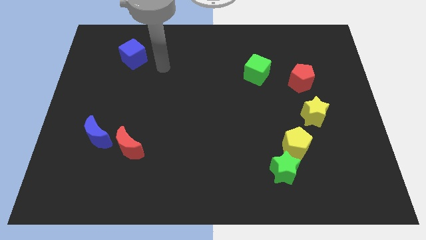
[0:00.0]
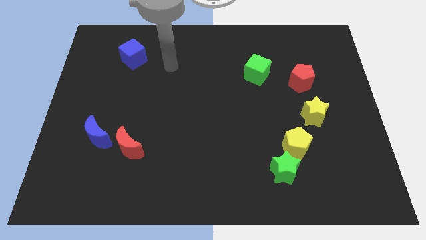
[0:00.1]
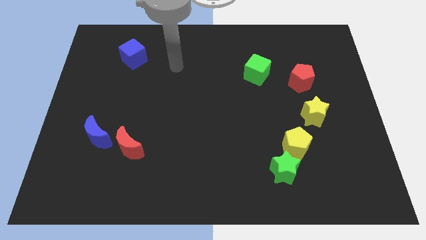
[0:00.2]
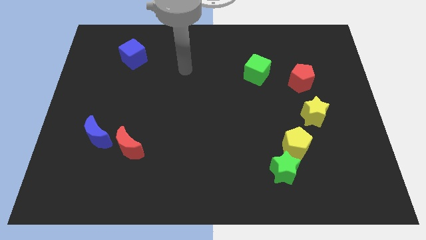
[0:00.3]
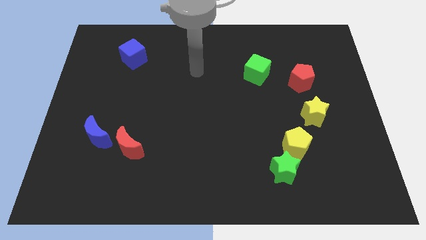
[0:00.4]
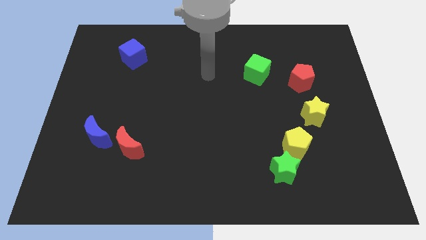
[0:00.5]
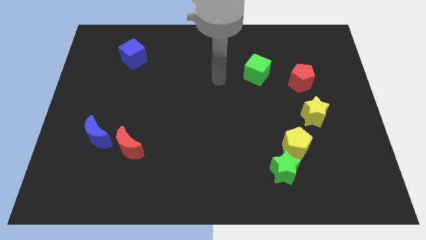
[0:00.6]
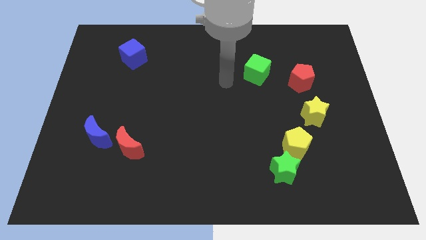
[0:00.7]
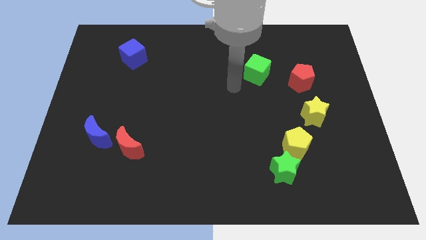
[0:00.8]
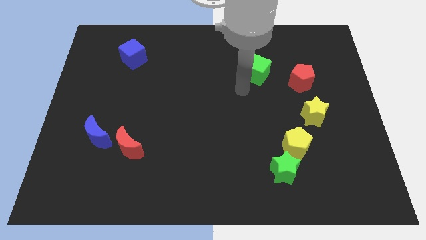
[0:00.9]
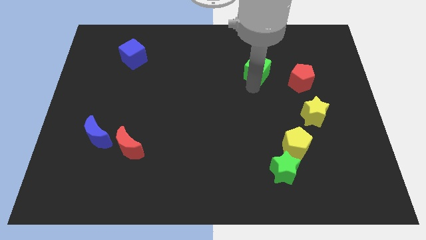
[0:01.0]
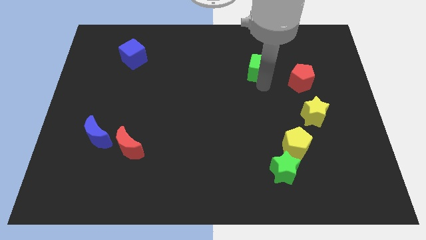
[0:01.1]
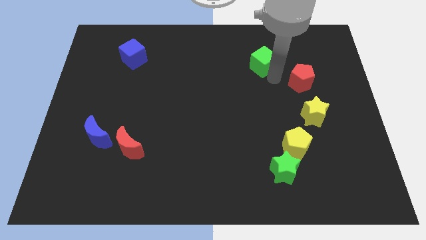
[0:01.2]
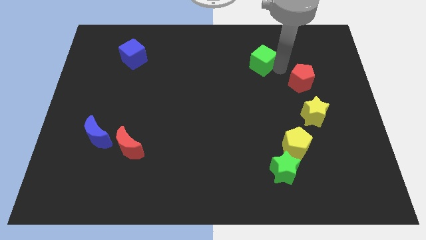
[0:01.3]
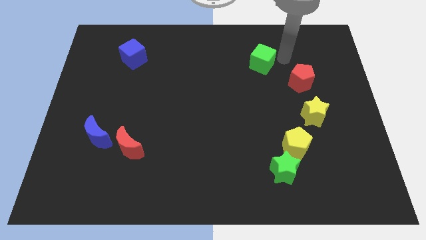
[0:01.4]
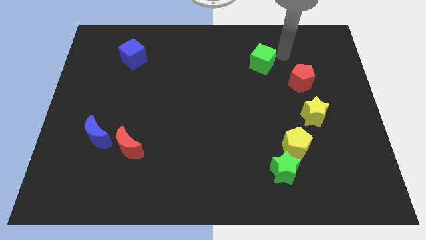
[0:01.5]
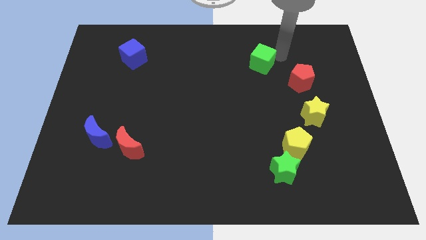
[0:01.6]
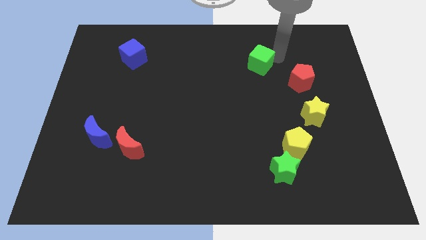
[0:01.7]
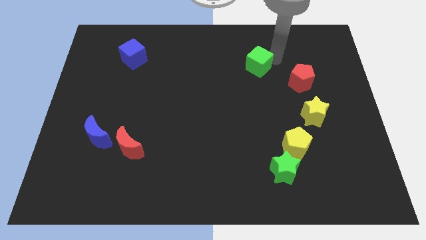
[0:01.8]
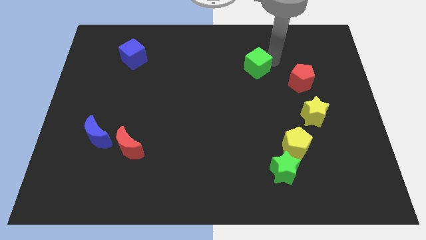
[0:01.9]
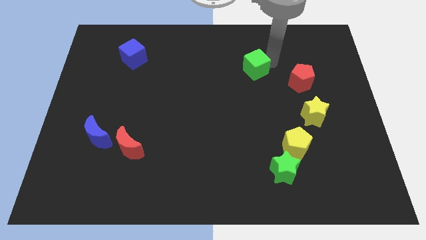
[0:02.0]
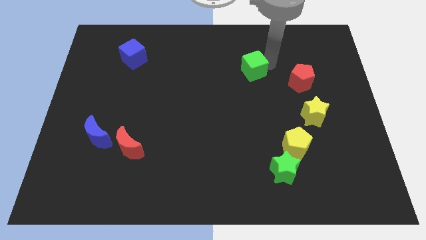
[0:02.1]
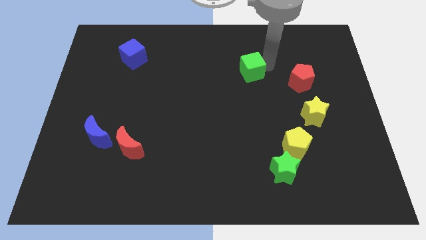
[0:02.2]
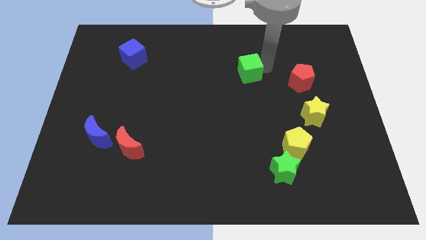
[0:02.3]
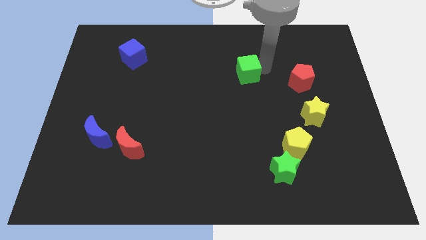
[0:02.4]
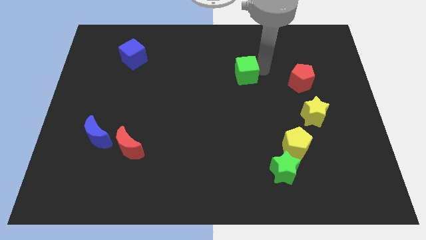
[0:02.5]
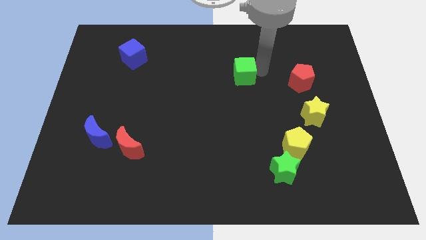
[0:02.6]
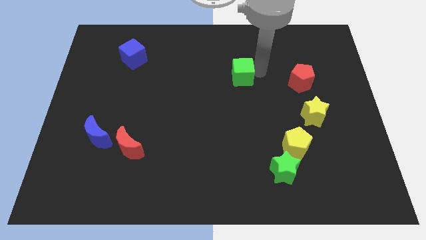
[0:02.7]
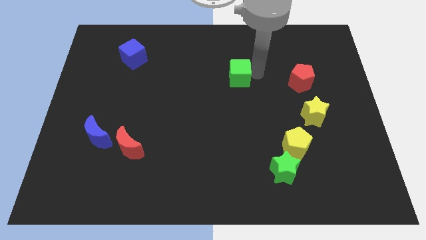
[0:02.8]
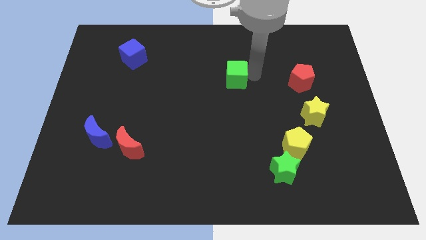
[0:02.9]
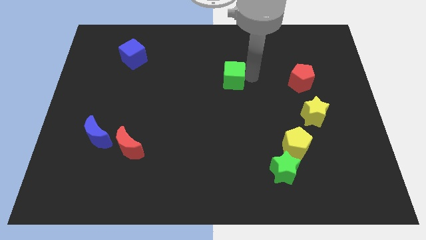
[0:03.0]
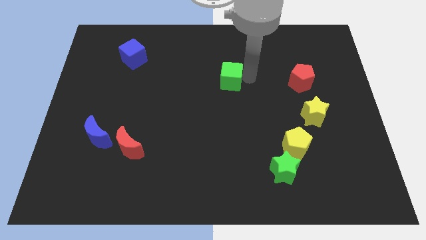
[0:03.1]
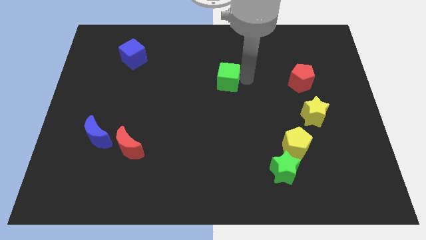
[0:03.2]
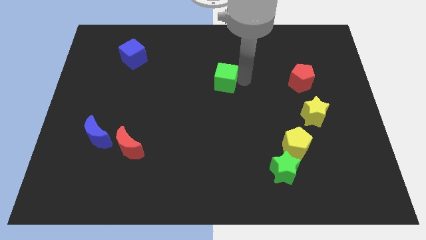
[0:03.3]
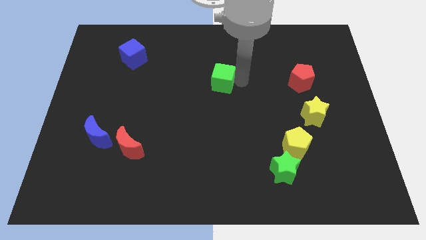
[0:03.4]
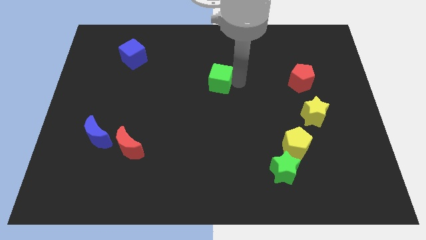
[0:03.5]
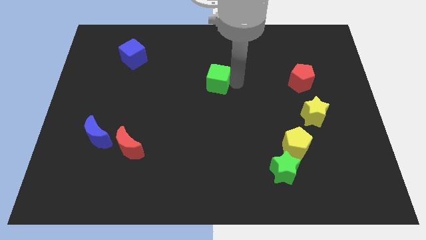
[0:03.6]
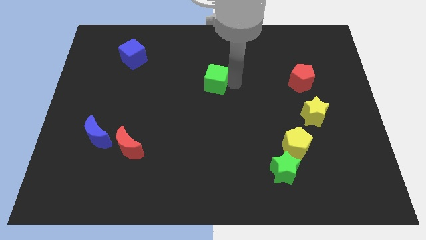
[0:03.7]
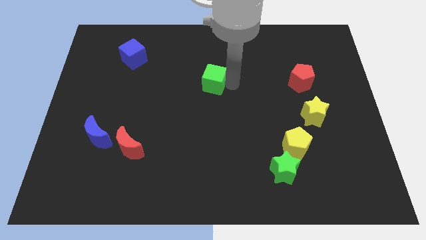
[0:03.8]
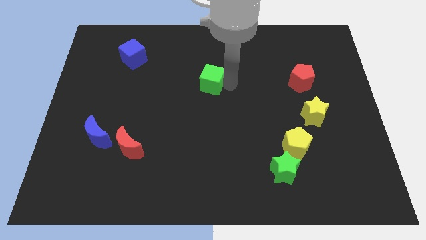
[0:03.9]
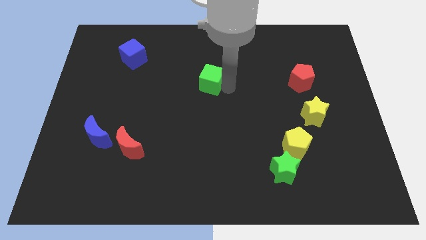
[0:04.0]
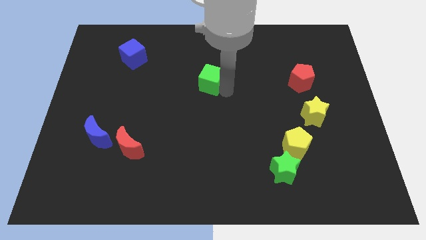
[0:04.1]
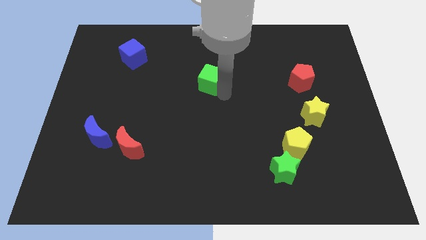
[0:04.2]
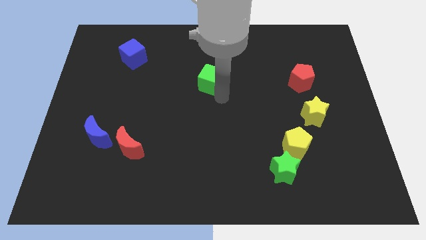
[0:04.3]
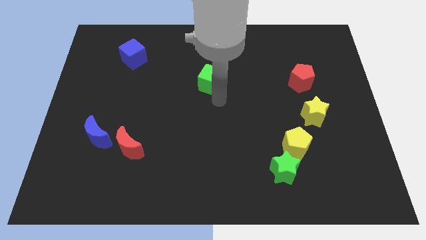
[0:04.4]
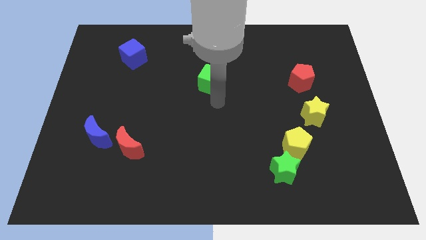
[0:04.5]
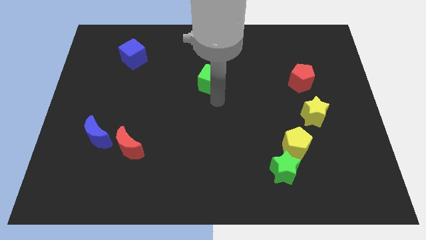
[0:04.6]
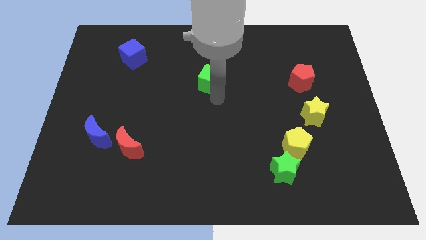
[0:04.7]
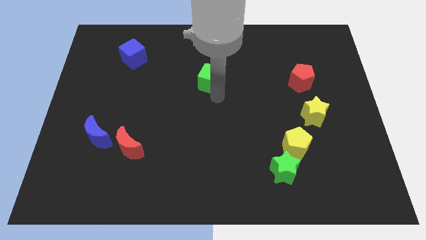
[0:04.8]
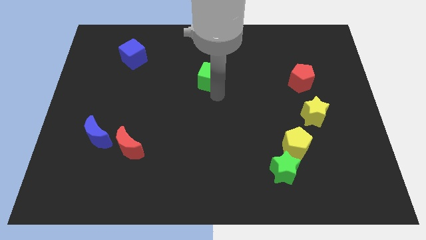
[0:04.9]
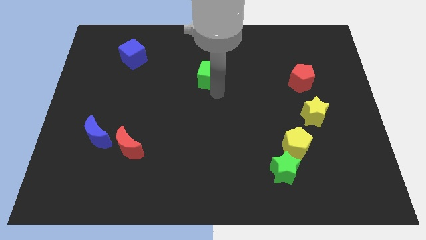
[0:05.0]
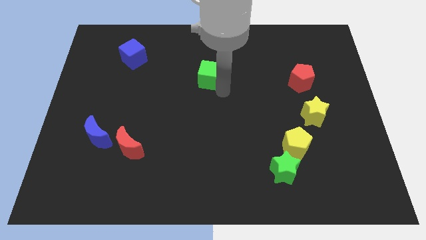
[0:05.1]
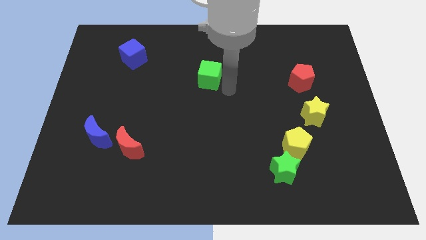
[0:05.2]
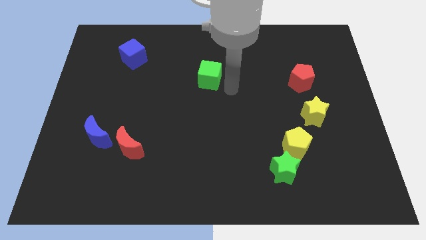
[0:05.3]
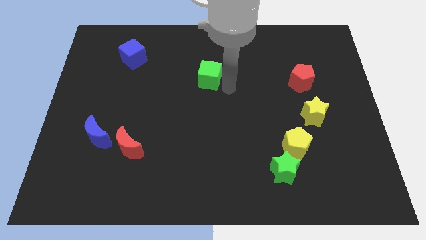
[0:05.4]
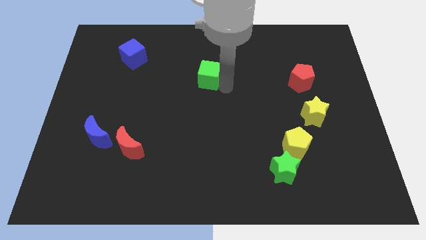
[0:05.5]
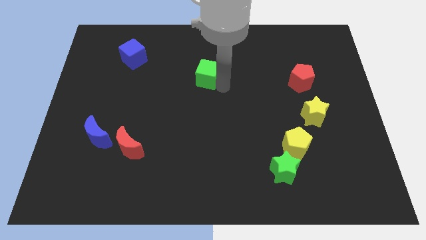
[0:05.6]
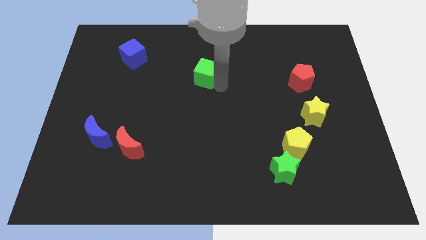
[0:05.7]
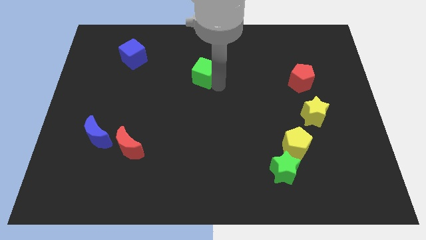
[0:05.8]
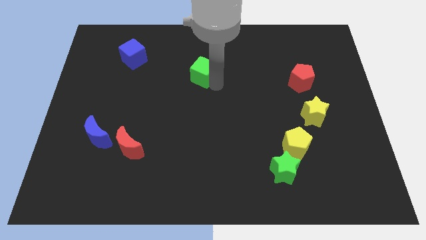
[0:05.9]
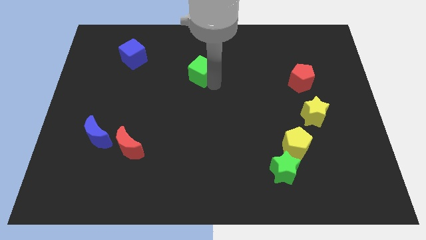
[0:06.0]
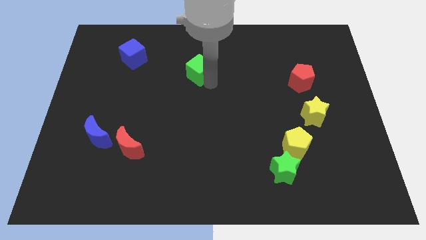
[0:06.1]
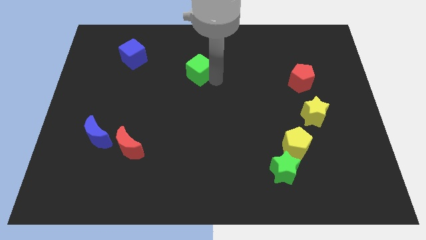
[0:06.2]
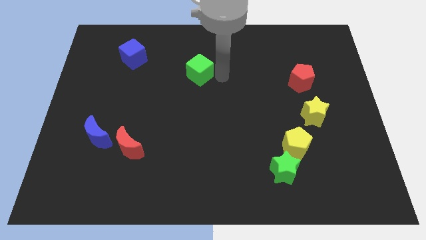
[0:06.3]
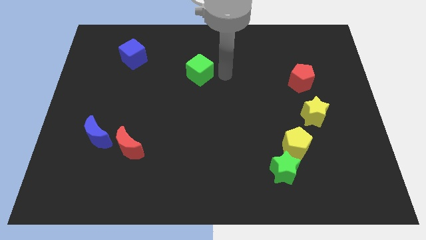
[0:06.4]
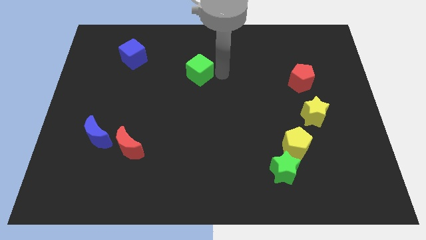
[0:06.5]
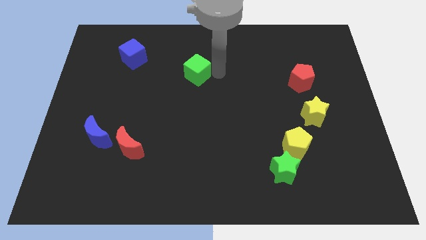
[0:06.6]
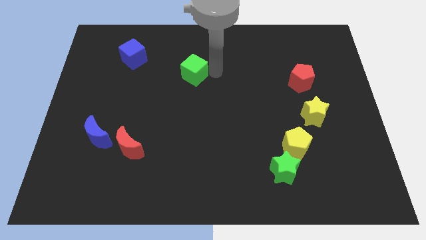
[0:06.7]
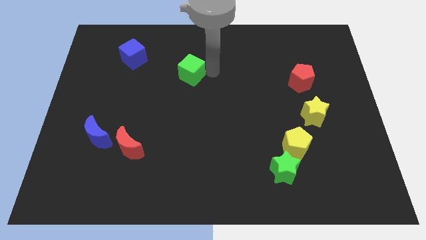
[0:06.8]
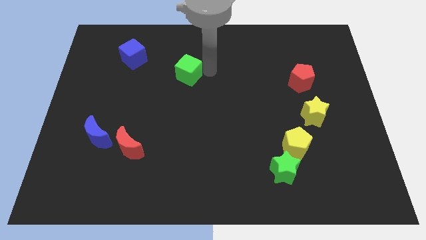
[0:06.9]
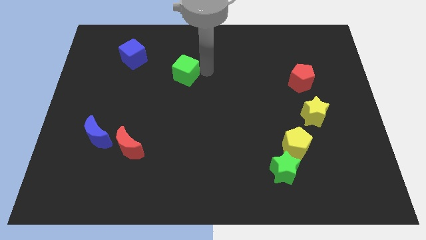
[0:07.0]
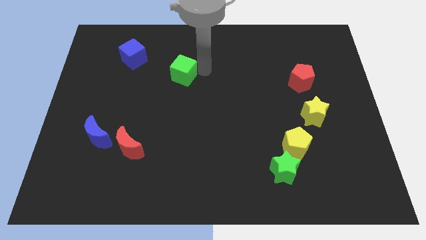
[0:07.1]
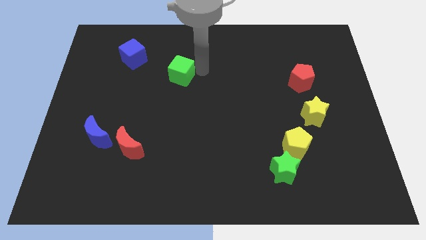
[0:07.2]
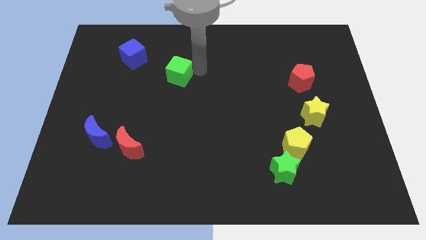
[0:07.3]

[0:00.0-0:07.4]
slide the green cube to the left
